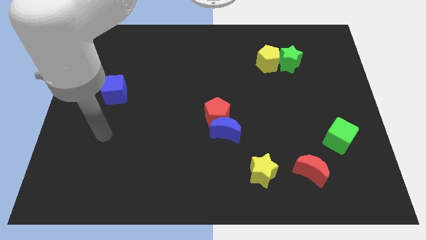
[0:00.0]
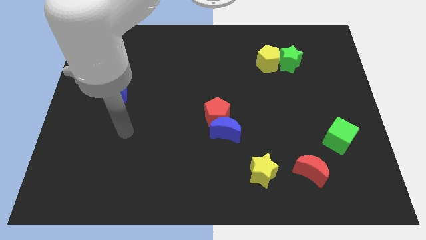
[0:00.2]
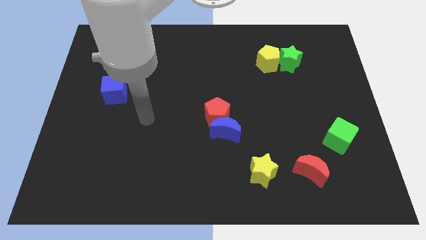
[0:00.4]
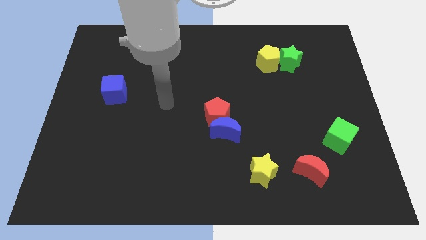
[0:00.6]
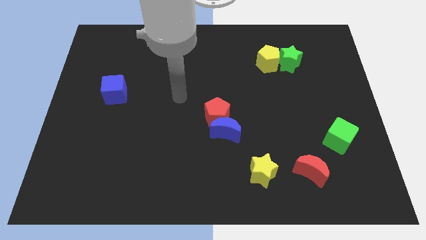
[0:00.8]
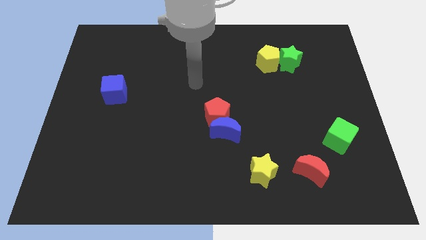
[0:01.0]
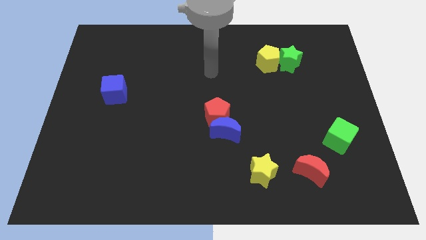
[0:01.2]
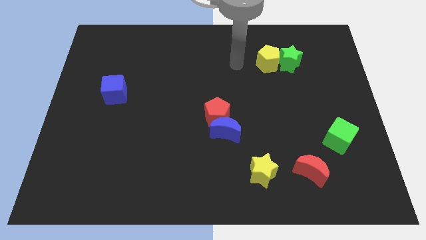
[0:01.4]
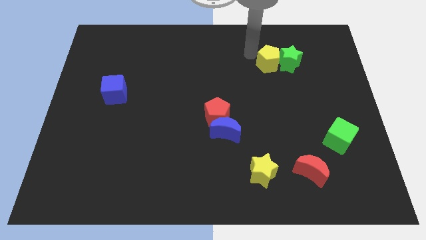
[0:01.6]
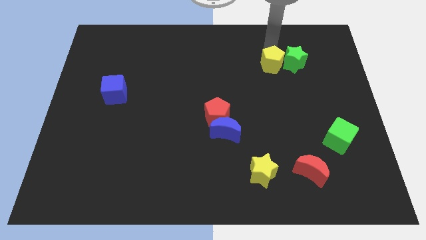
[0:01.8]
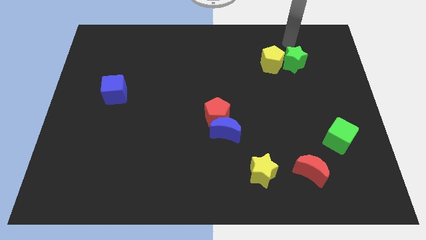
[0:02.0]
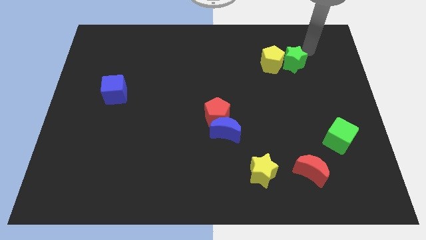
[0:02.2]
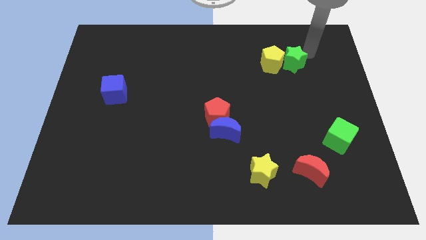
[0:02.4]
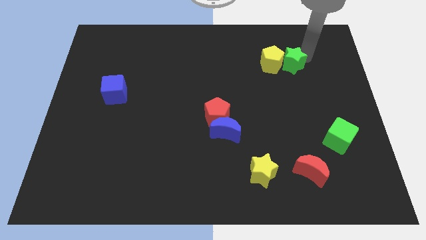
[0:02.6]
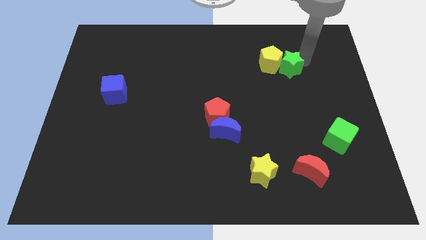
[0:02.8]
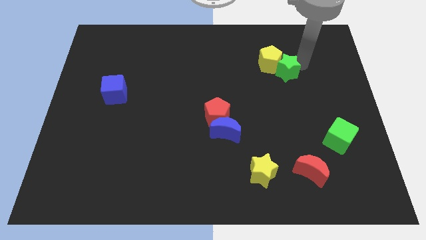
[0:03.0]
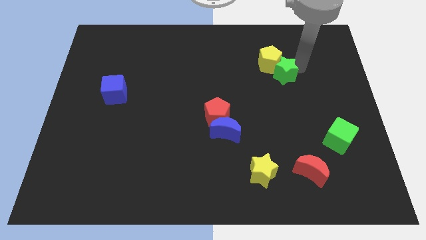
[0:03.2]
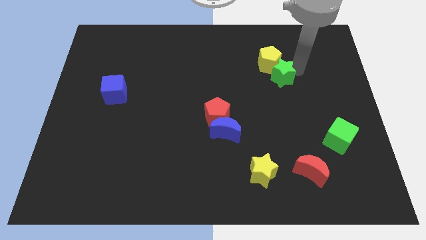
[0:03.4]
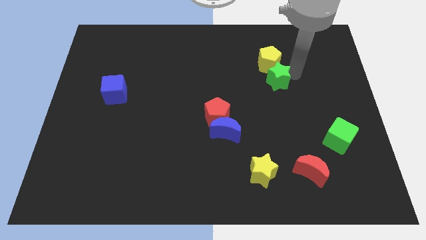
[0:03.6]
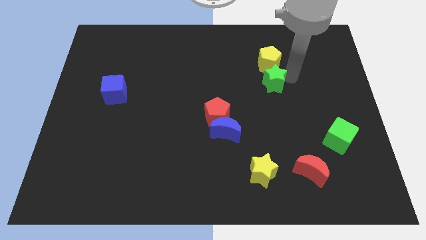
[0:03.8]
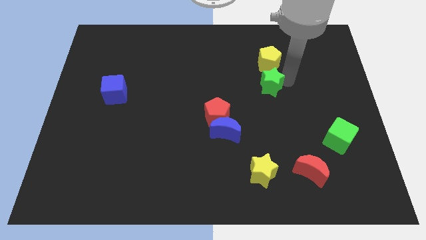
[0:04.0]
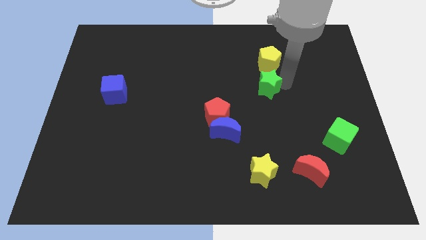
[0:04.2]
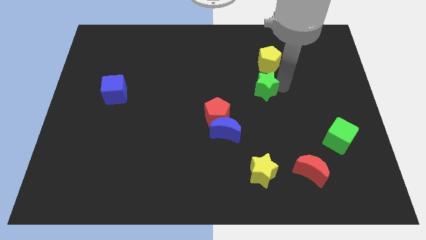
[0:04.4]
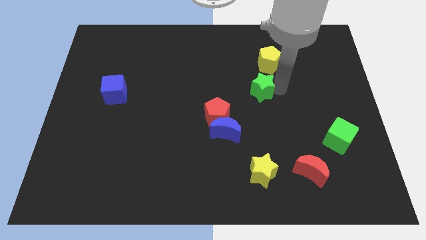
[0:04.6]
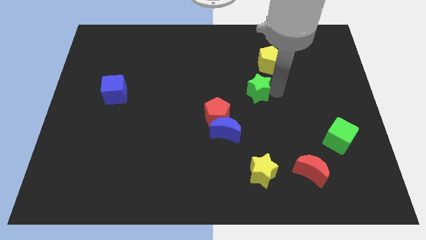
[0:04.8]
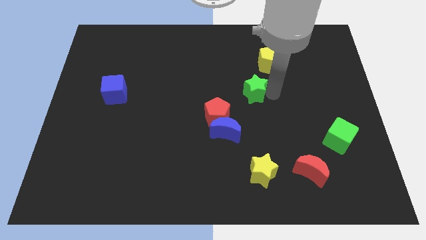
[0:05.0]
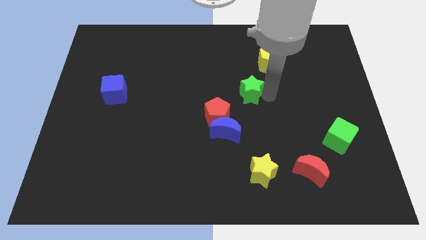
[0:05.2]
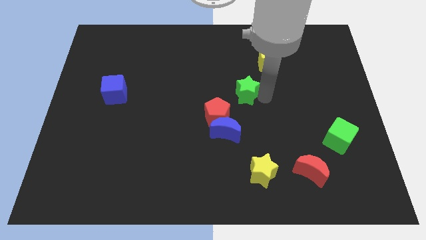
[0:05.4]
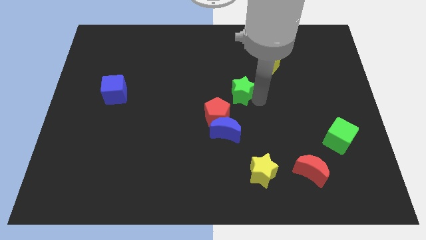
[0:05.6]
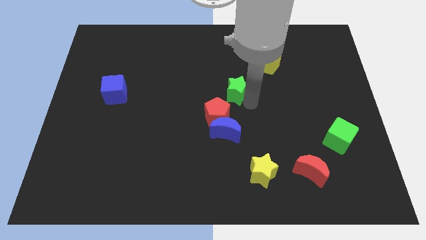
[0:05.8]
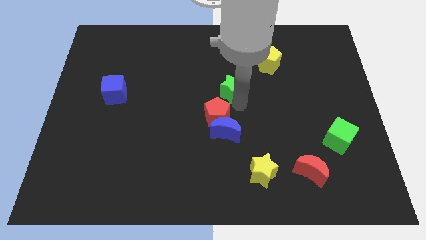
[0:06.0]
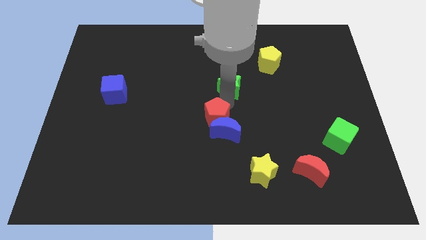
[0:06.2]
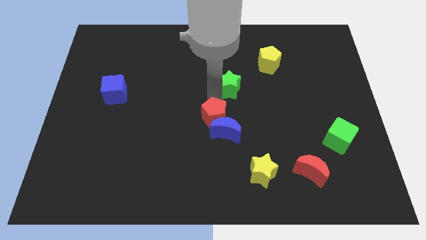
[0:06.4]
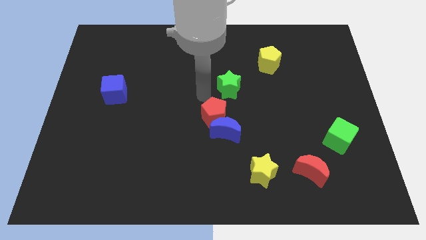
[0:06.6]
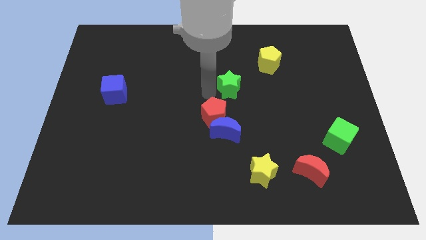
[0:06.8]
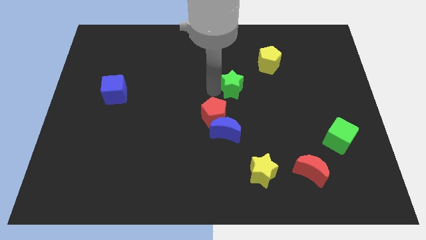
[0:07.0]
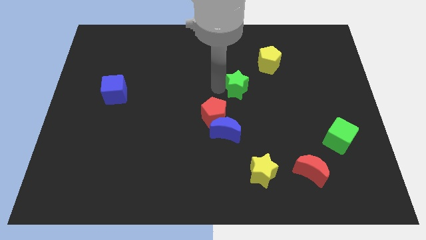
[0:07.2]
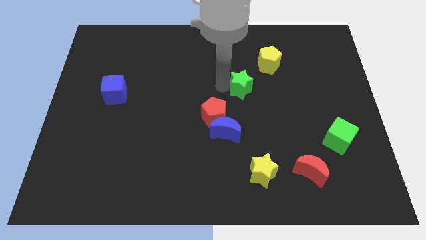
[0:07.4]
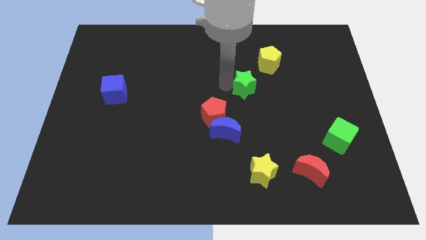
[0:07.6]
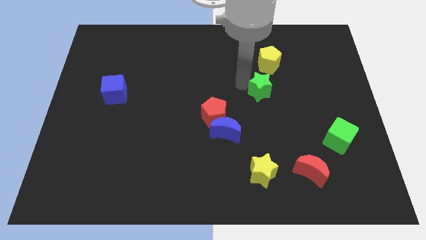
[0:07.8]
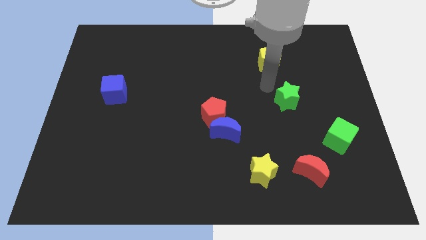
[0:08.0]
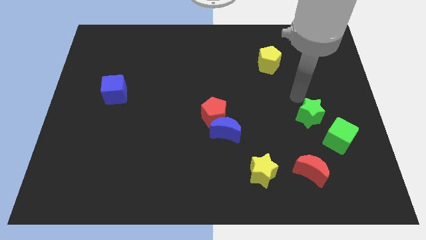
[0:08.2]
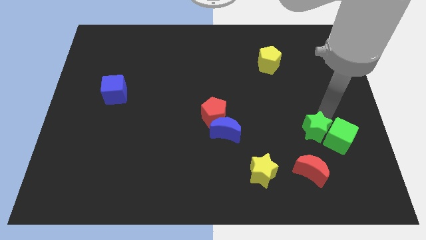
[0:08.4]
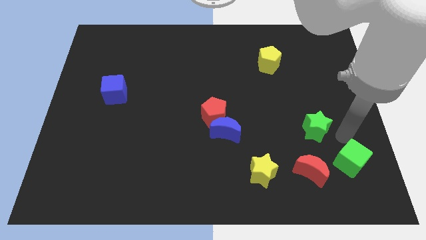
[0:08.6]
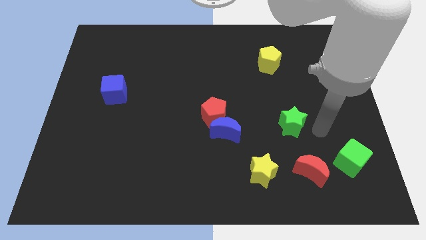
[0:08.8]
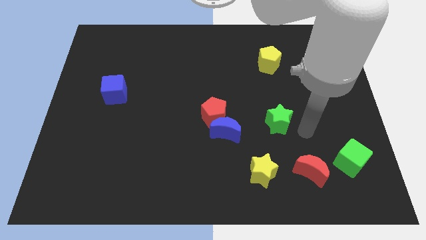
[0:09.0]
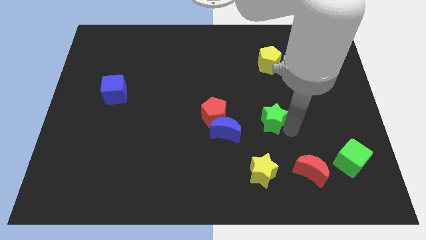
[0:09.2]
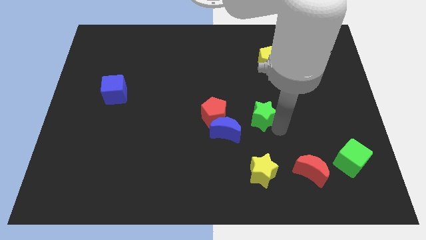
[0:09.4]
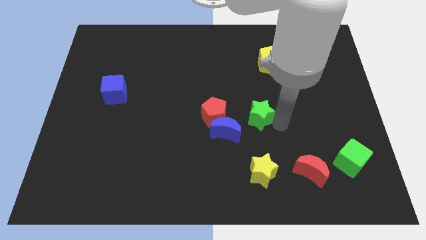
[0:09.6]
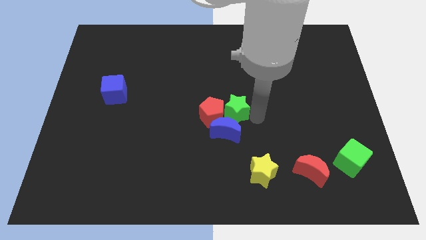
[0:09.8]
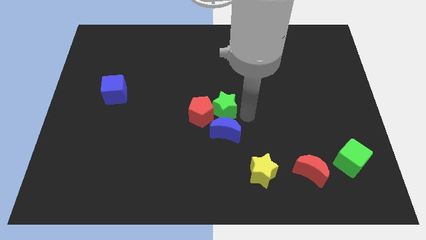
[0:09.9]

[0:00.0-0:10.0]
slide the green star diagonally up and to the left of the blue moon

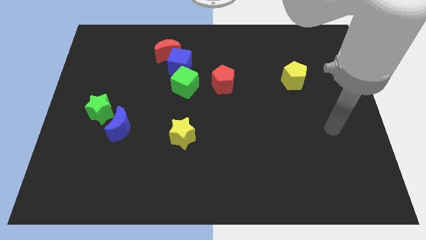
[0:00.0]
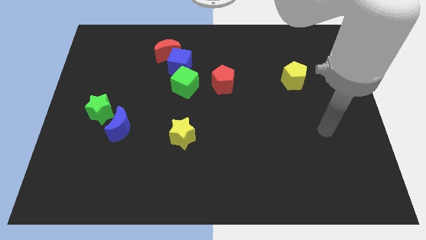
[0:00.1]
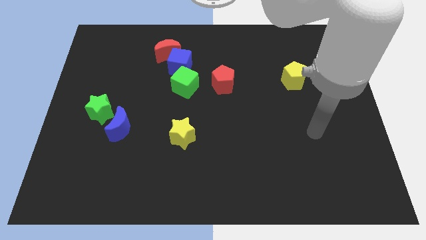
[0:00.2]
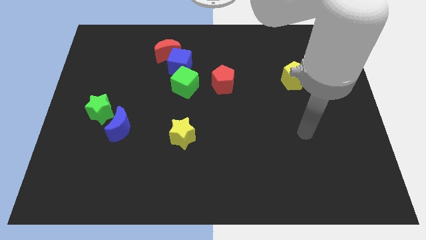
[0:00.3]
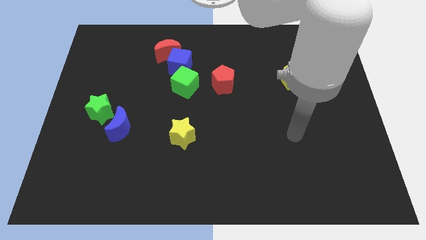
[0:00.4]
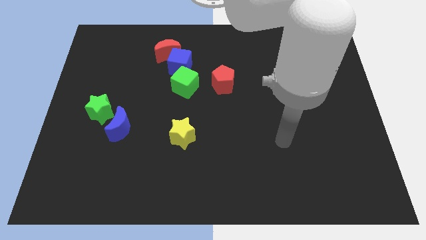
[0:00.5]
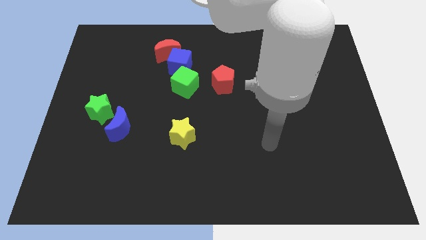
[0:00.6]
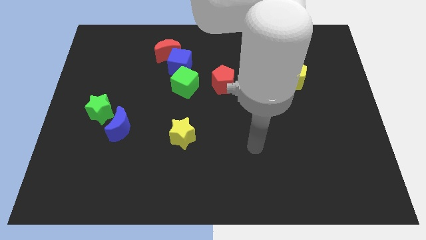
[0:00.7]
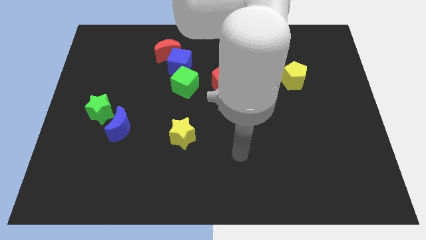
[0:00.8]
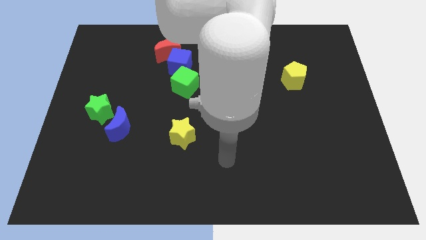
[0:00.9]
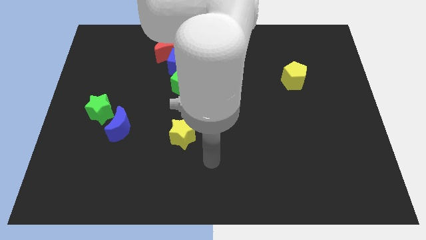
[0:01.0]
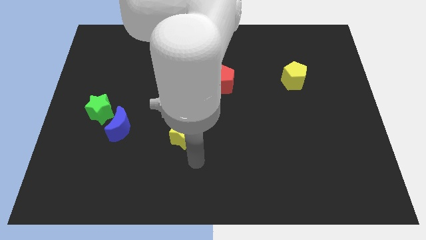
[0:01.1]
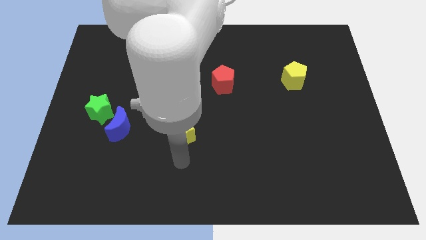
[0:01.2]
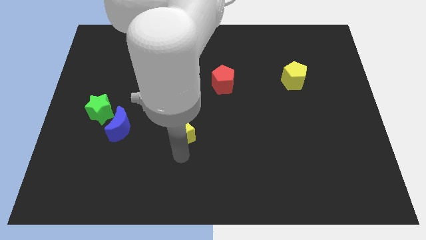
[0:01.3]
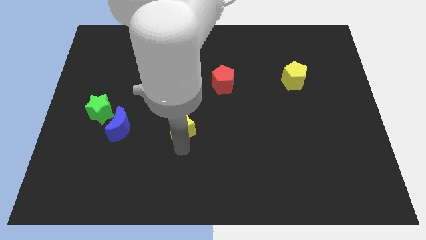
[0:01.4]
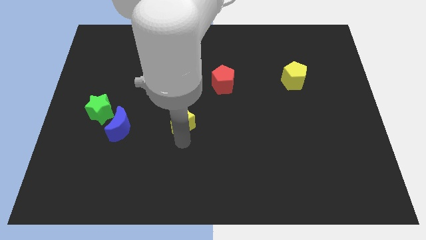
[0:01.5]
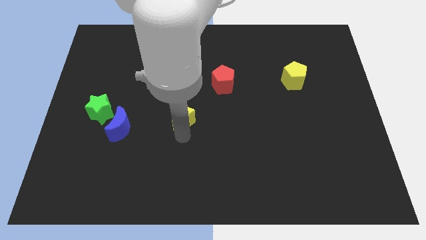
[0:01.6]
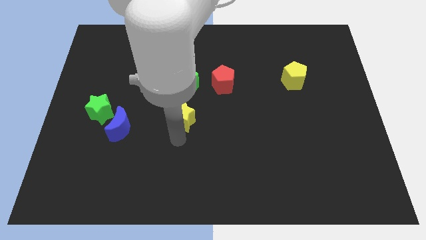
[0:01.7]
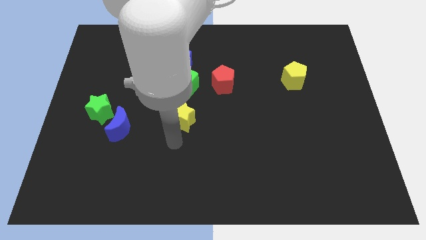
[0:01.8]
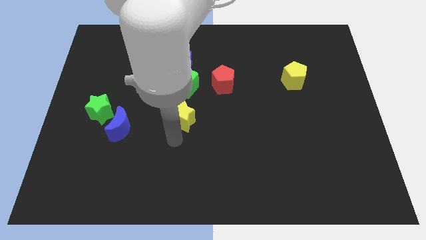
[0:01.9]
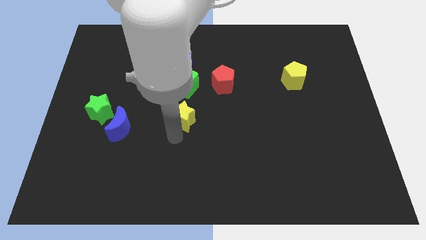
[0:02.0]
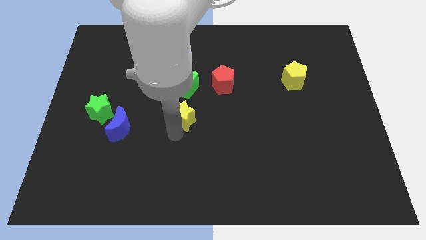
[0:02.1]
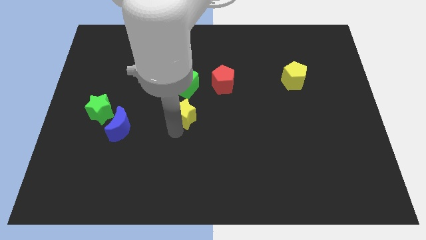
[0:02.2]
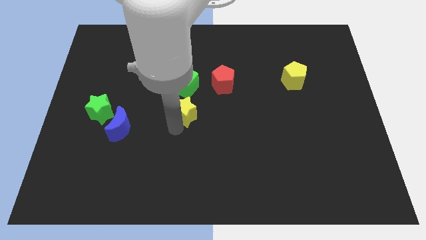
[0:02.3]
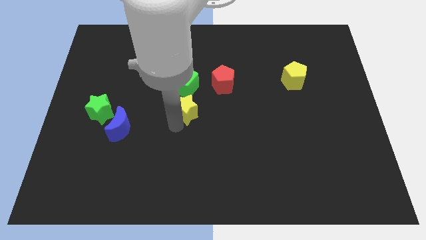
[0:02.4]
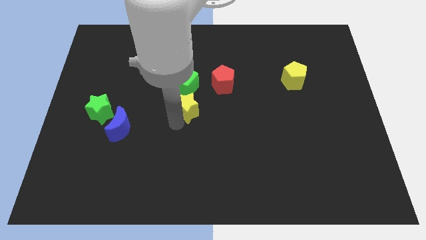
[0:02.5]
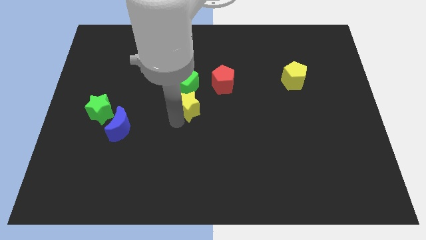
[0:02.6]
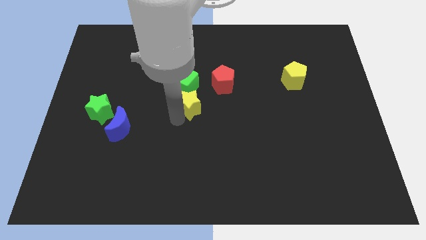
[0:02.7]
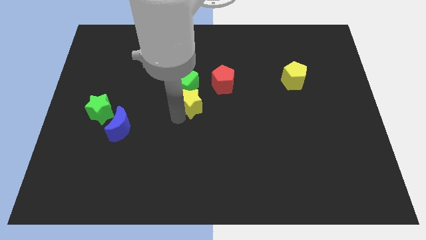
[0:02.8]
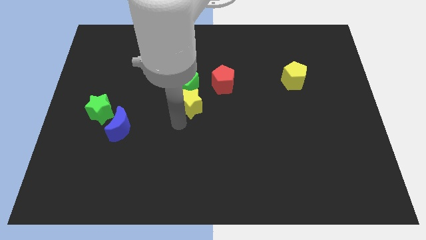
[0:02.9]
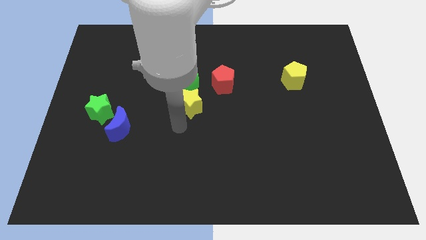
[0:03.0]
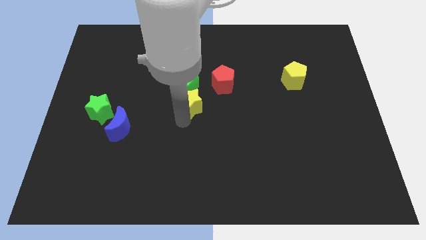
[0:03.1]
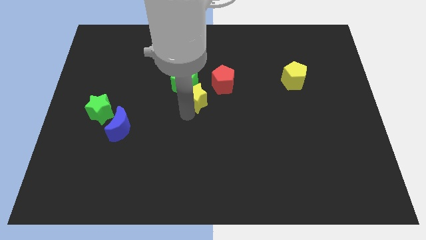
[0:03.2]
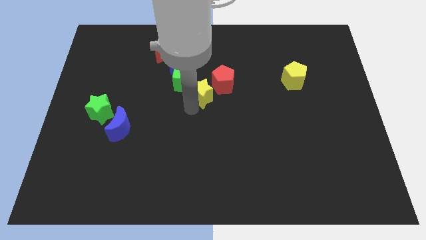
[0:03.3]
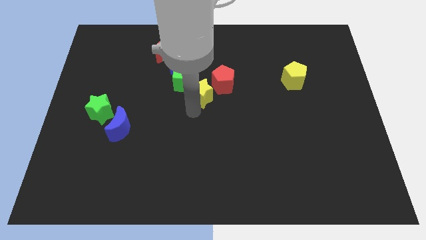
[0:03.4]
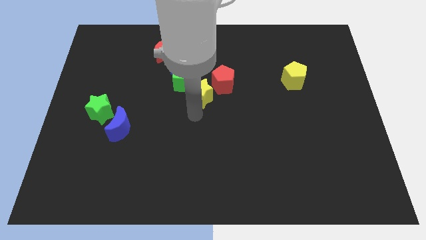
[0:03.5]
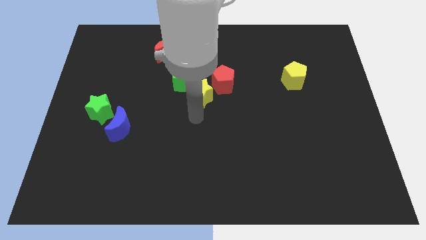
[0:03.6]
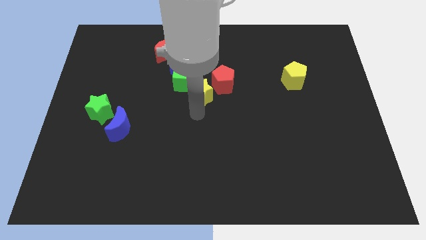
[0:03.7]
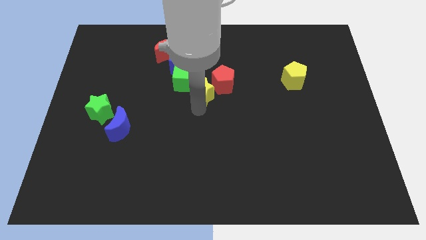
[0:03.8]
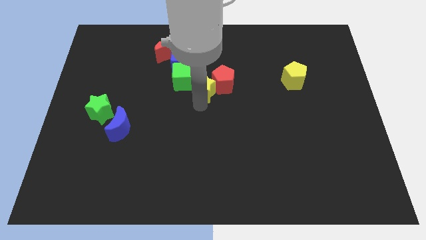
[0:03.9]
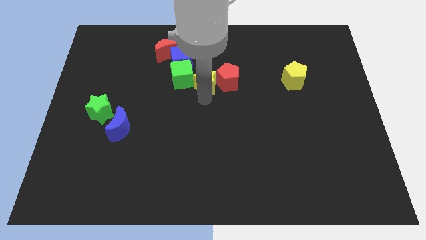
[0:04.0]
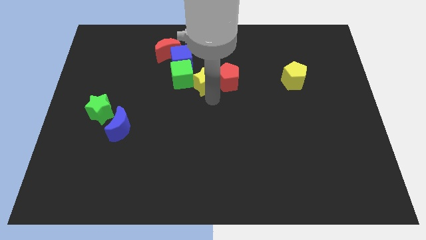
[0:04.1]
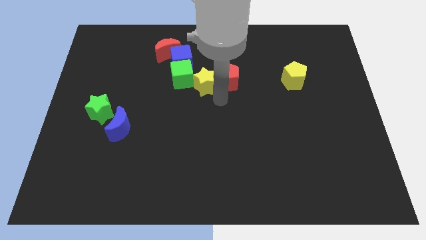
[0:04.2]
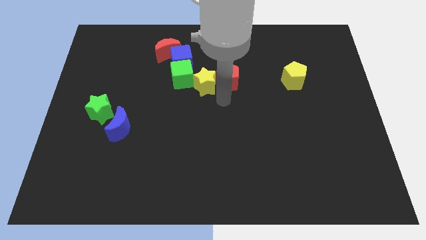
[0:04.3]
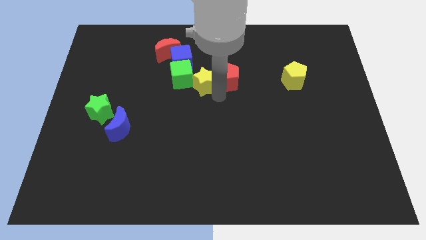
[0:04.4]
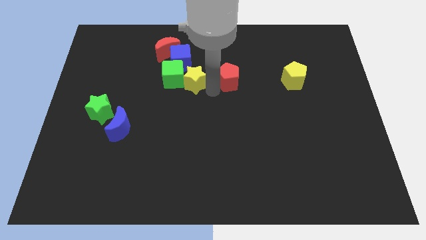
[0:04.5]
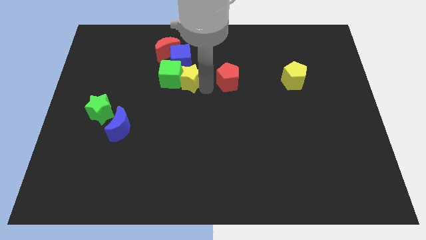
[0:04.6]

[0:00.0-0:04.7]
slide the yellow star to the bottom right side of the red moon
